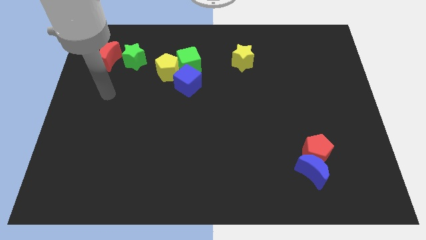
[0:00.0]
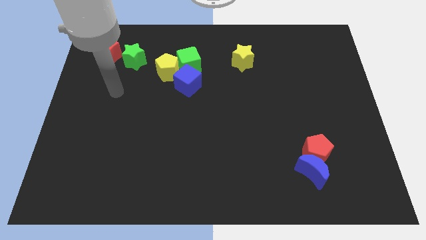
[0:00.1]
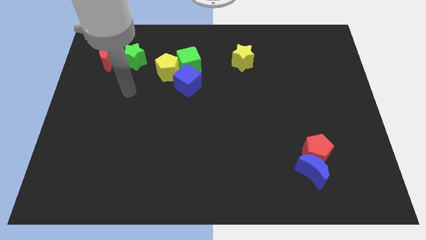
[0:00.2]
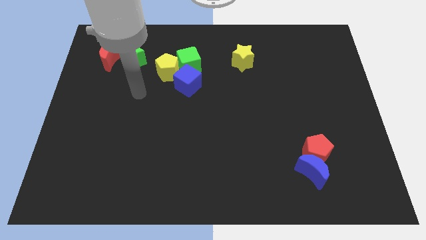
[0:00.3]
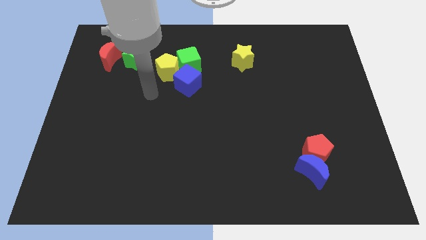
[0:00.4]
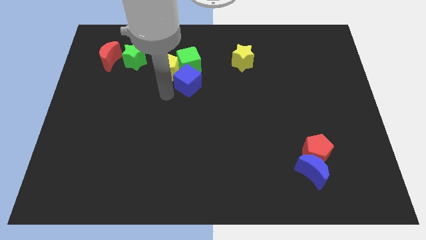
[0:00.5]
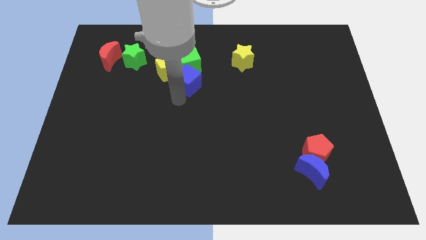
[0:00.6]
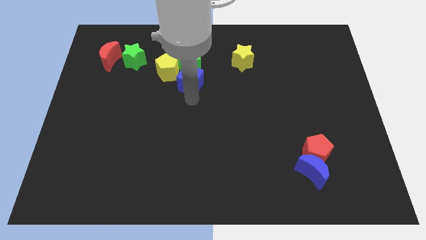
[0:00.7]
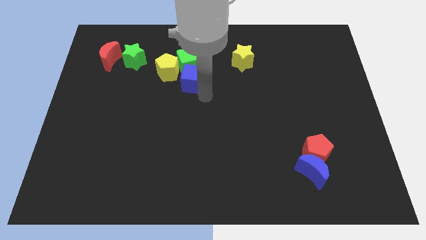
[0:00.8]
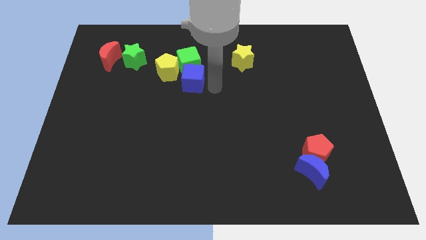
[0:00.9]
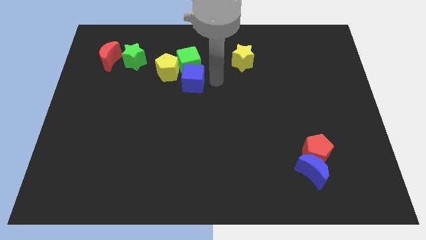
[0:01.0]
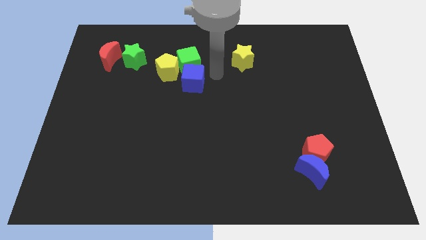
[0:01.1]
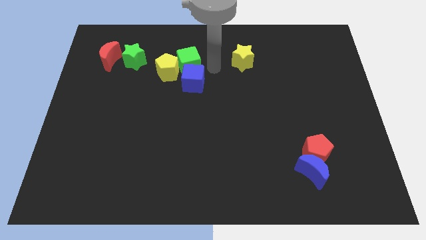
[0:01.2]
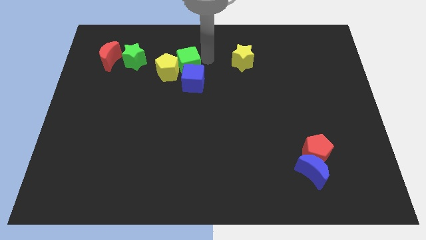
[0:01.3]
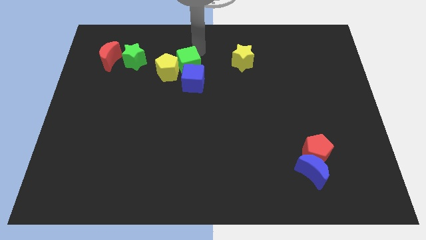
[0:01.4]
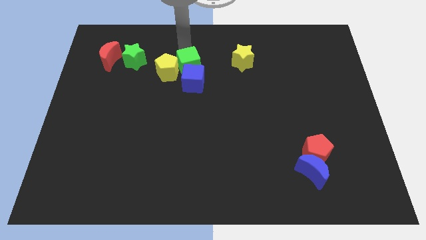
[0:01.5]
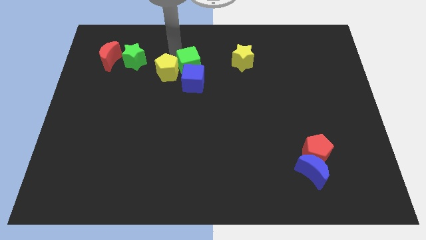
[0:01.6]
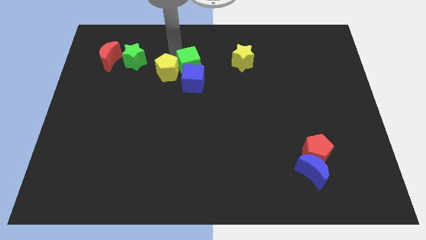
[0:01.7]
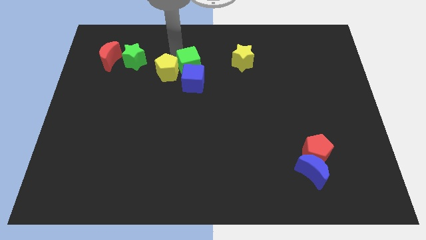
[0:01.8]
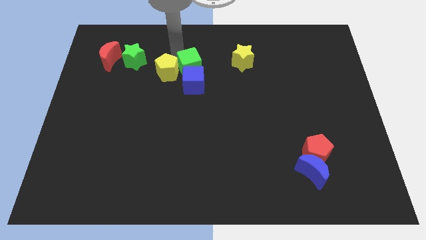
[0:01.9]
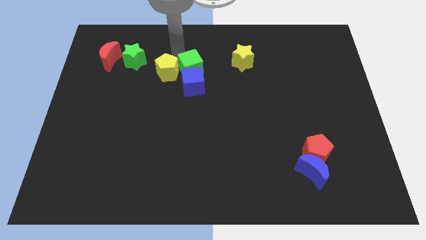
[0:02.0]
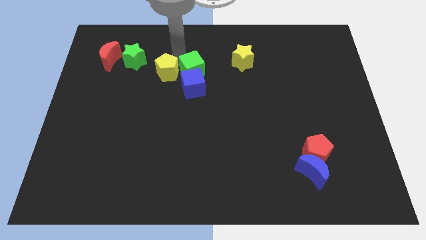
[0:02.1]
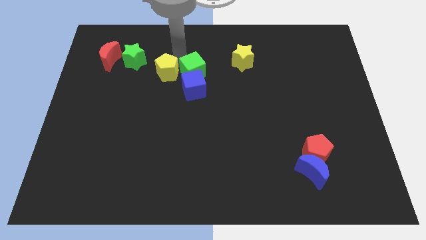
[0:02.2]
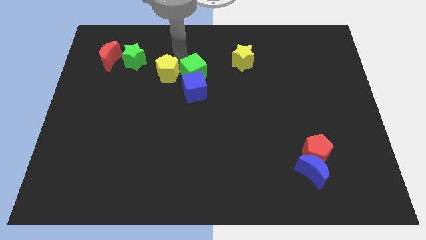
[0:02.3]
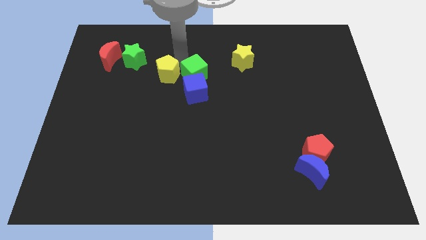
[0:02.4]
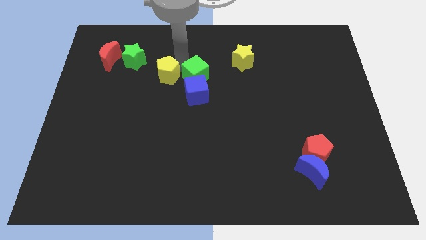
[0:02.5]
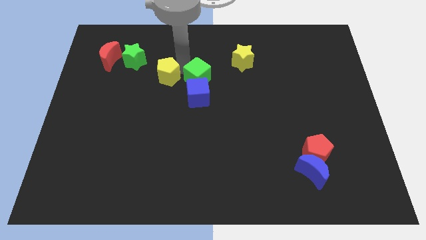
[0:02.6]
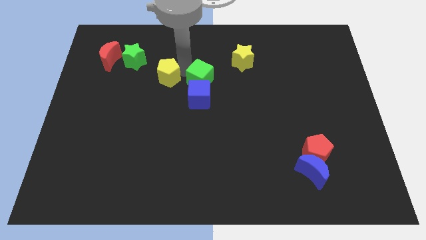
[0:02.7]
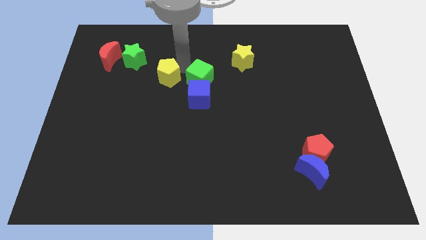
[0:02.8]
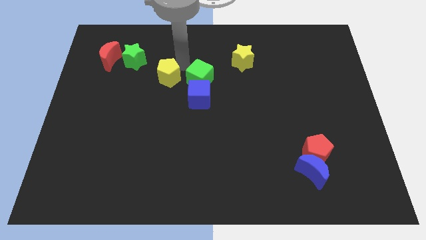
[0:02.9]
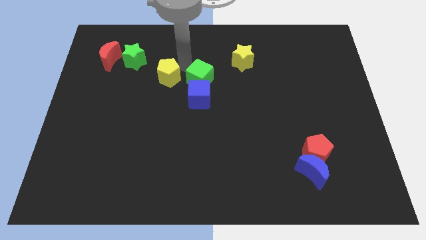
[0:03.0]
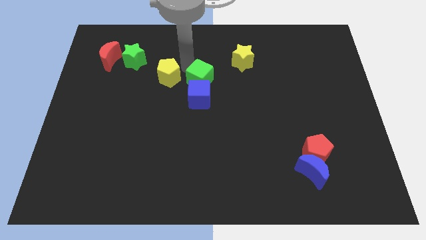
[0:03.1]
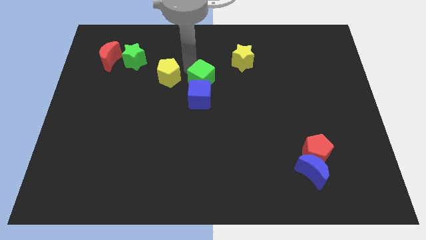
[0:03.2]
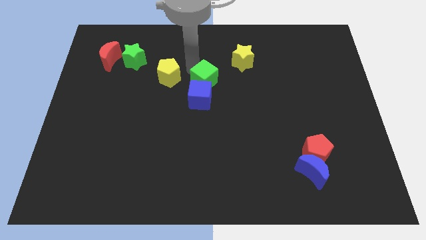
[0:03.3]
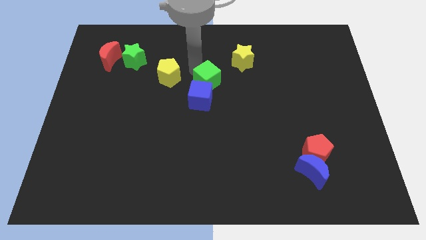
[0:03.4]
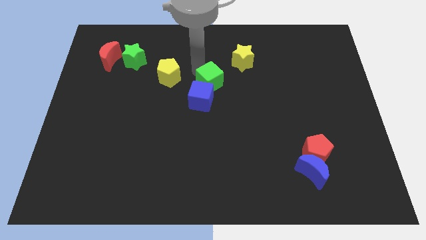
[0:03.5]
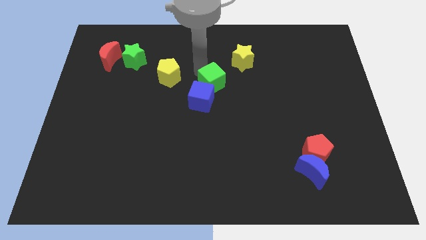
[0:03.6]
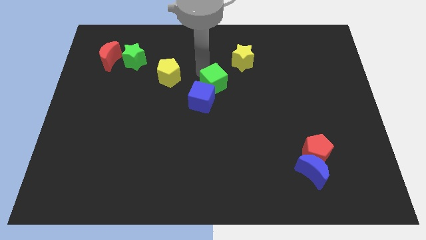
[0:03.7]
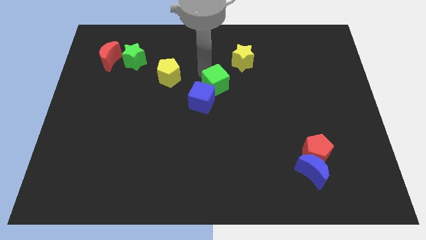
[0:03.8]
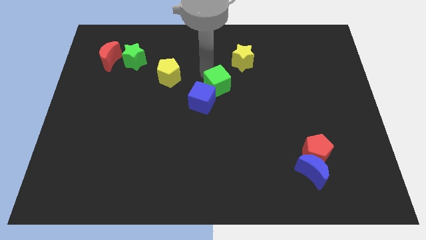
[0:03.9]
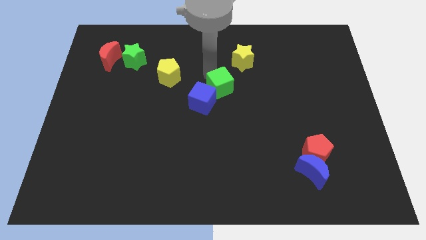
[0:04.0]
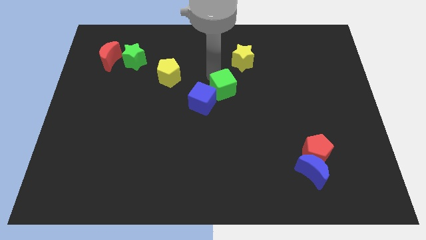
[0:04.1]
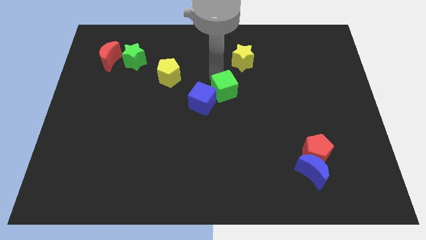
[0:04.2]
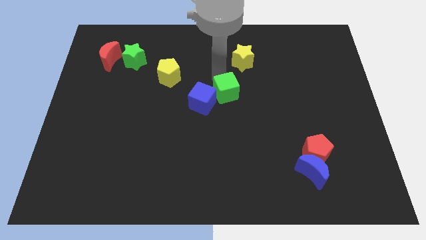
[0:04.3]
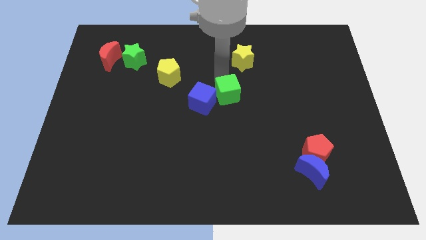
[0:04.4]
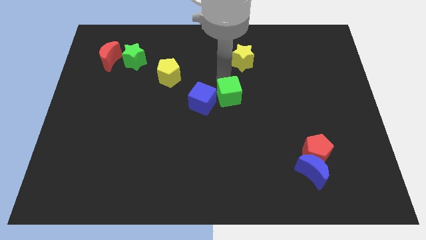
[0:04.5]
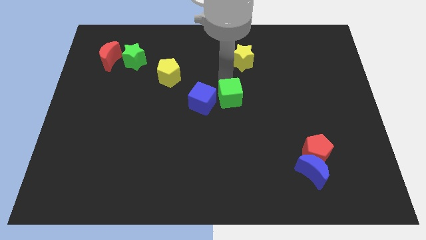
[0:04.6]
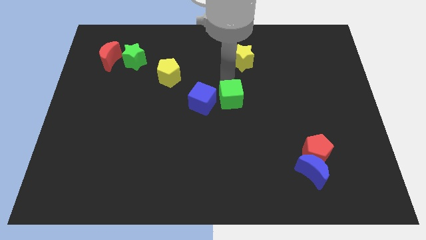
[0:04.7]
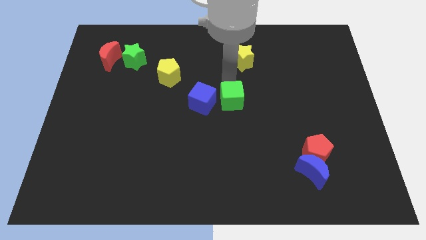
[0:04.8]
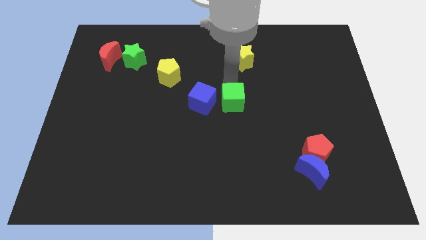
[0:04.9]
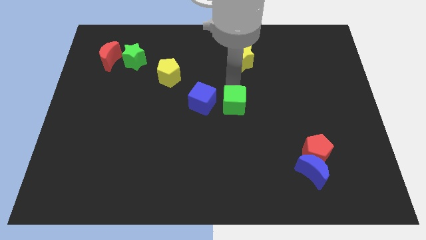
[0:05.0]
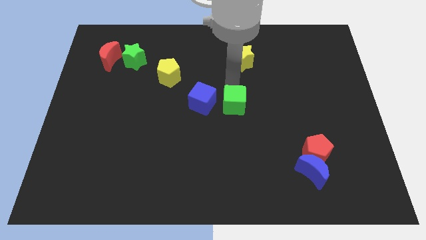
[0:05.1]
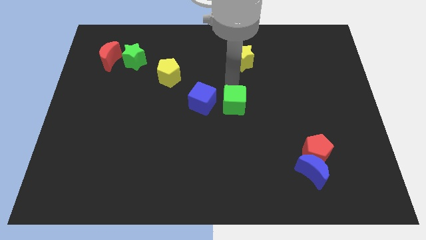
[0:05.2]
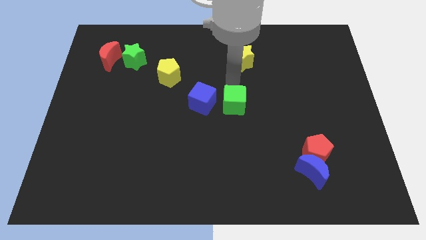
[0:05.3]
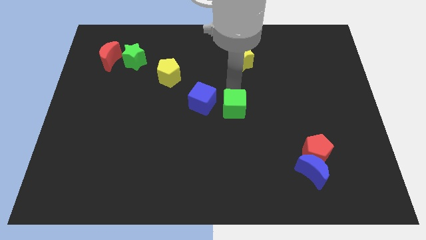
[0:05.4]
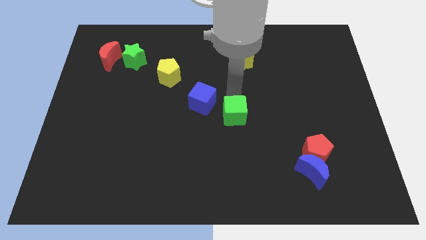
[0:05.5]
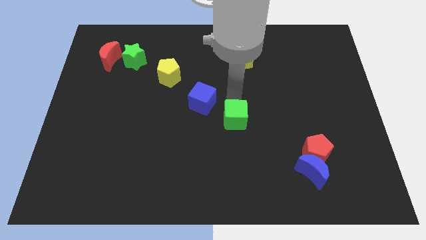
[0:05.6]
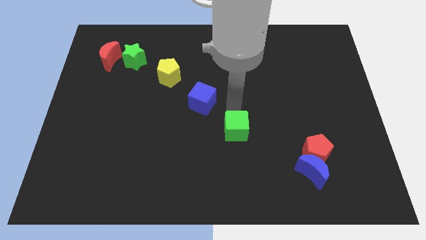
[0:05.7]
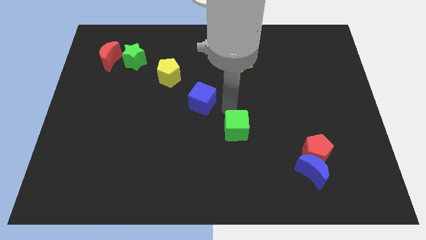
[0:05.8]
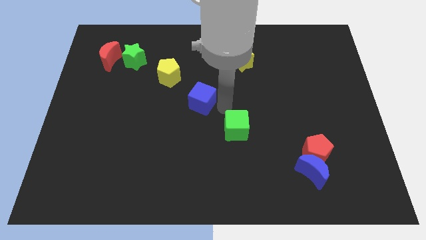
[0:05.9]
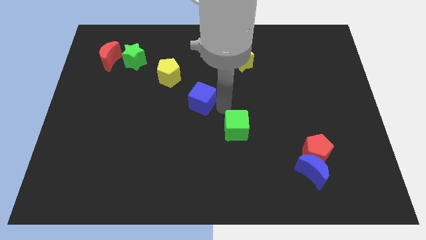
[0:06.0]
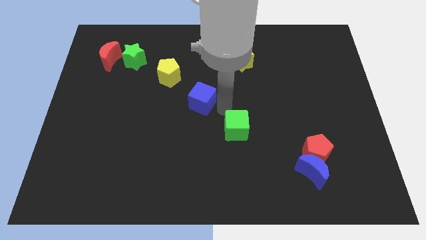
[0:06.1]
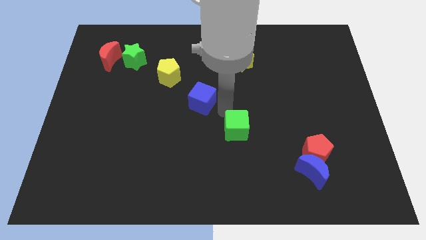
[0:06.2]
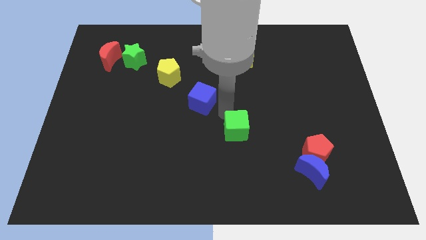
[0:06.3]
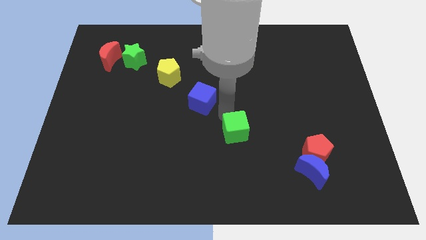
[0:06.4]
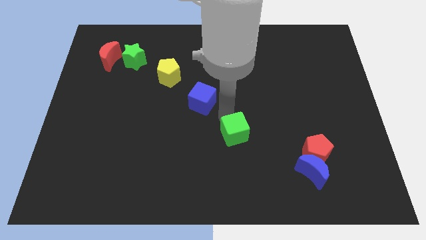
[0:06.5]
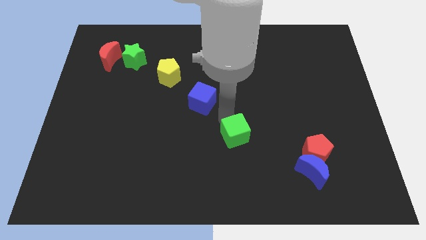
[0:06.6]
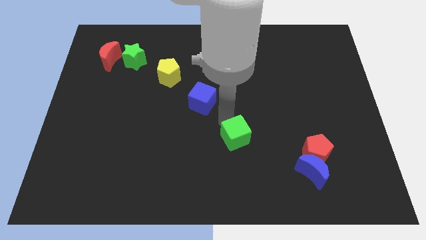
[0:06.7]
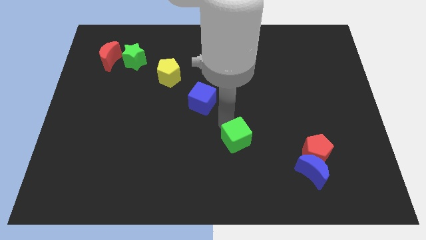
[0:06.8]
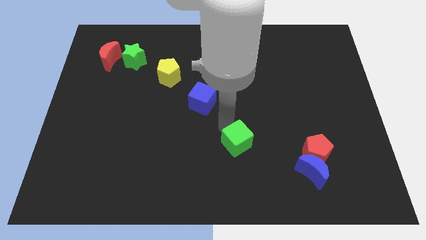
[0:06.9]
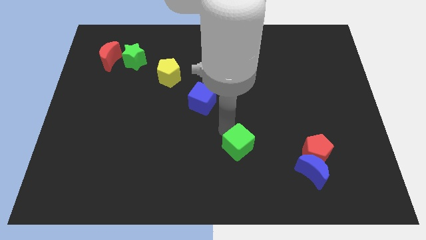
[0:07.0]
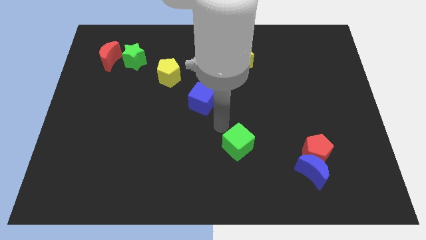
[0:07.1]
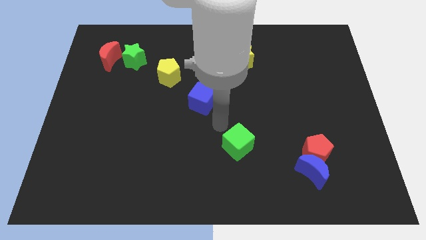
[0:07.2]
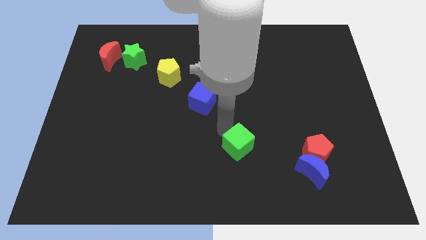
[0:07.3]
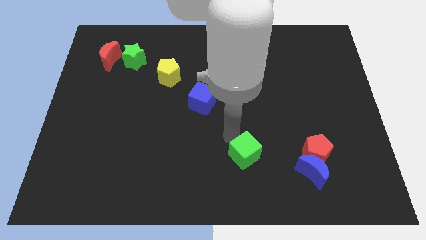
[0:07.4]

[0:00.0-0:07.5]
push the green cube just left of the blue moon
